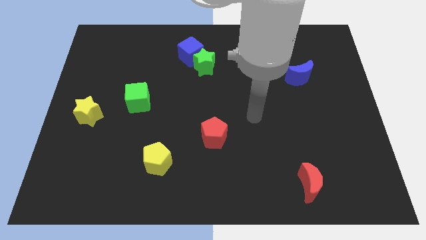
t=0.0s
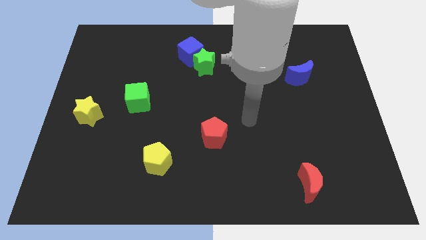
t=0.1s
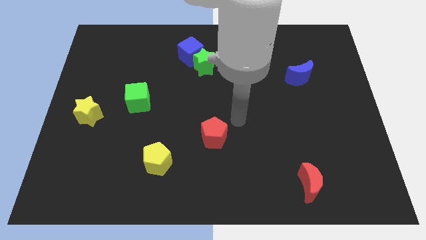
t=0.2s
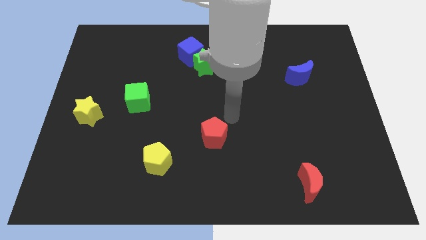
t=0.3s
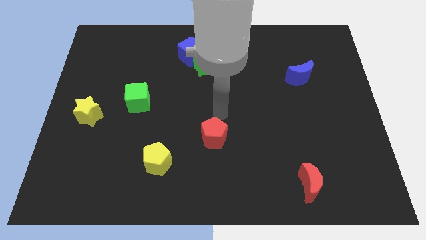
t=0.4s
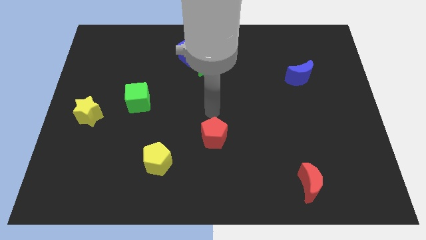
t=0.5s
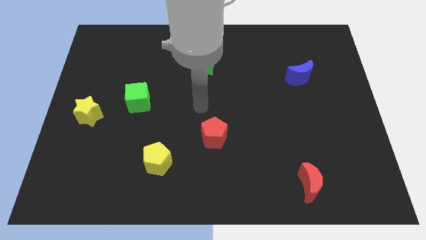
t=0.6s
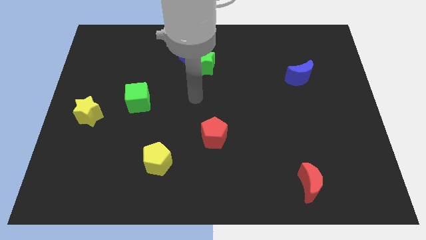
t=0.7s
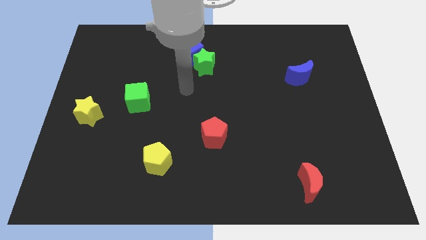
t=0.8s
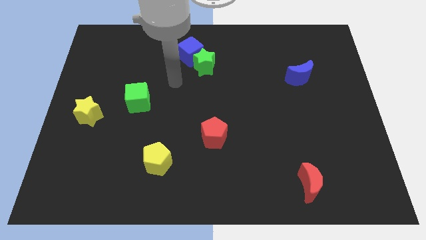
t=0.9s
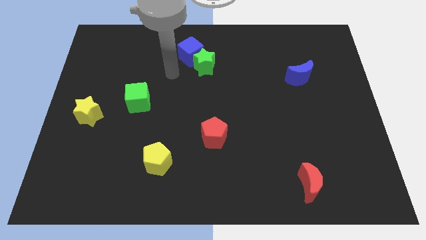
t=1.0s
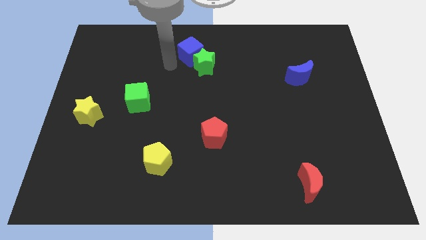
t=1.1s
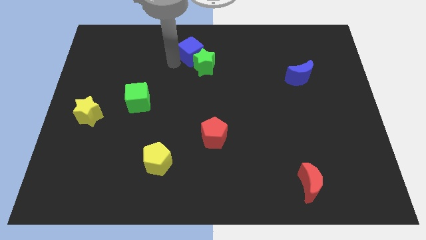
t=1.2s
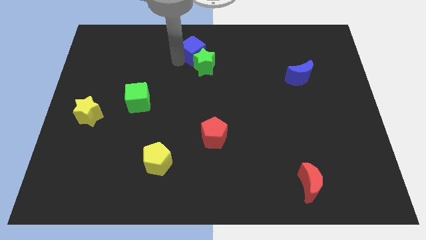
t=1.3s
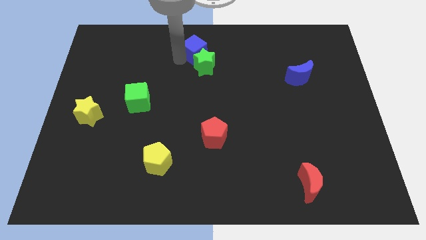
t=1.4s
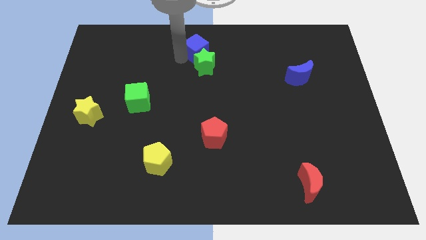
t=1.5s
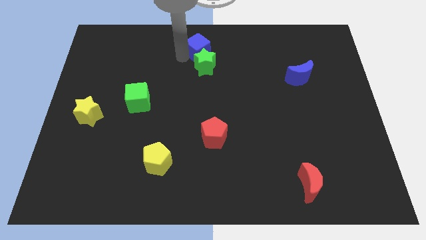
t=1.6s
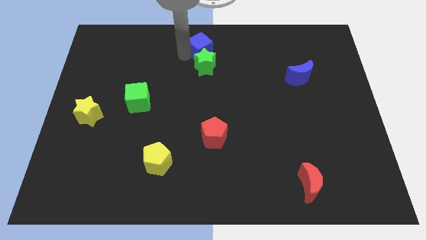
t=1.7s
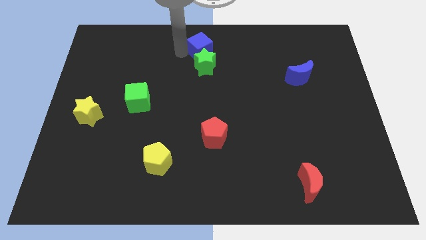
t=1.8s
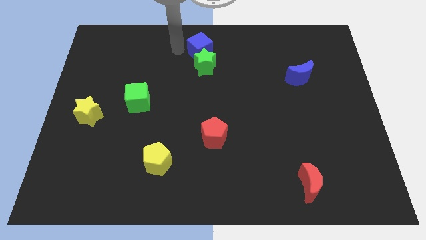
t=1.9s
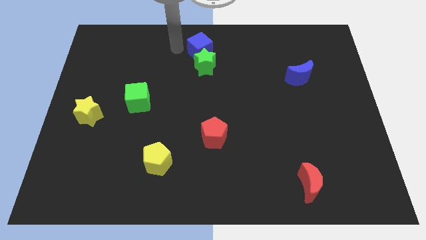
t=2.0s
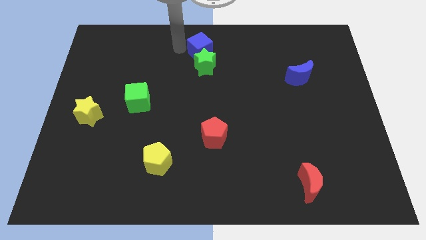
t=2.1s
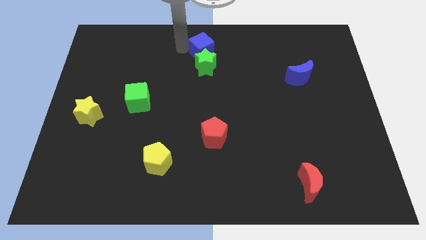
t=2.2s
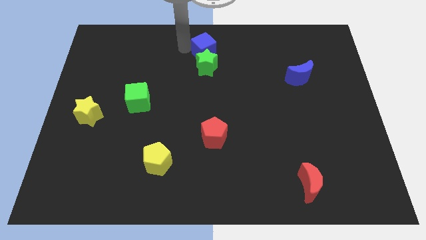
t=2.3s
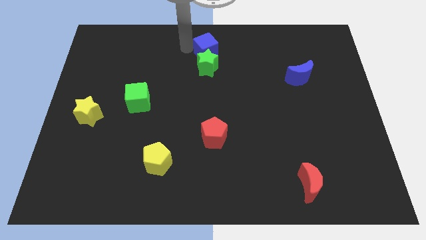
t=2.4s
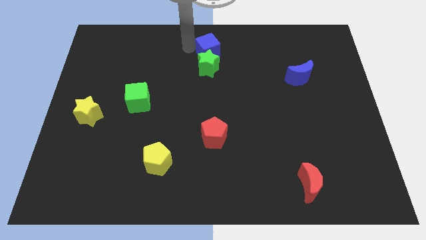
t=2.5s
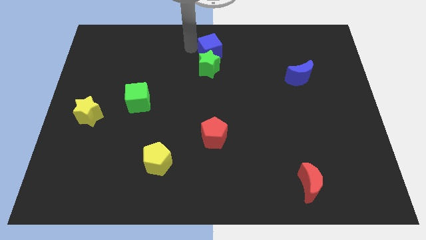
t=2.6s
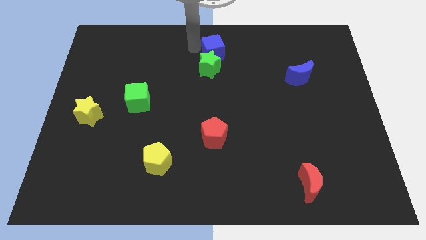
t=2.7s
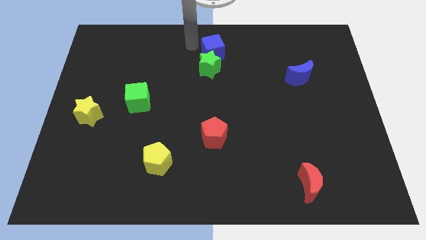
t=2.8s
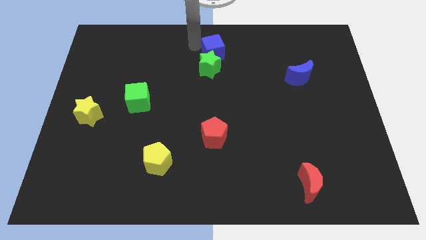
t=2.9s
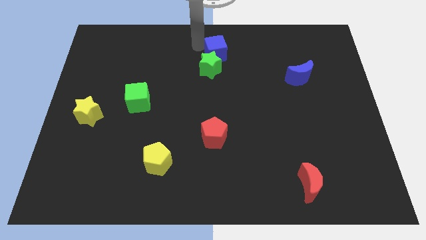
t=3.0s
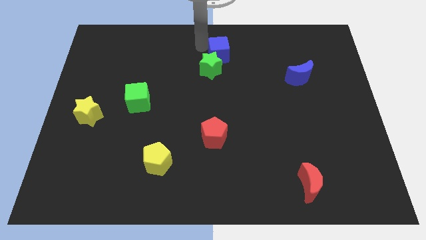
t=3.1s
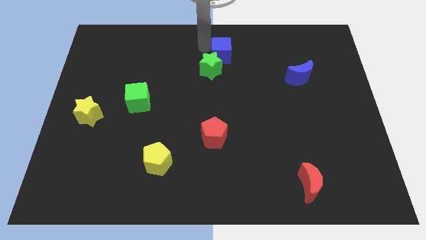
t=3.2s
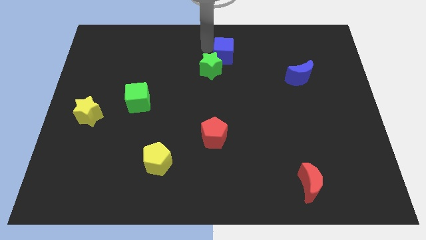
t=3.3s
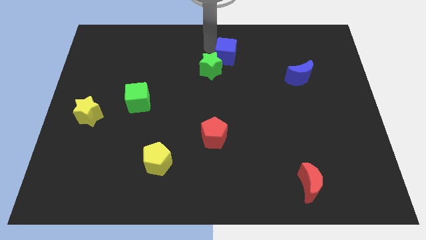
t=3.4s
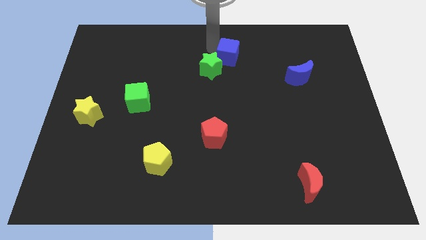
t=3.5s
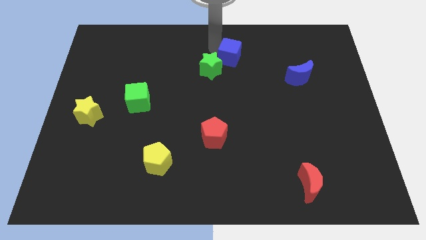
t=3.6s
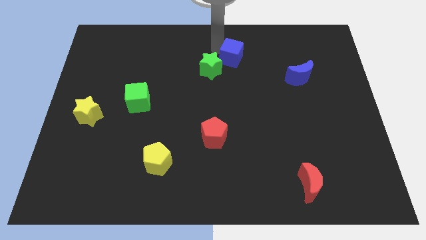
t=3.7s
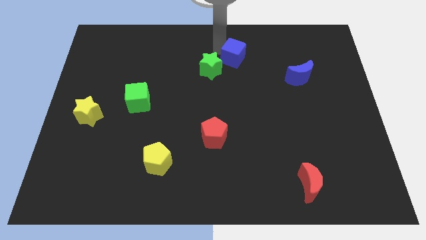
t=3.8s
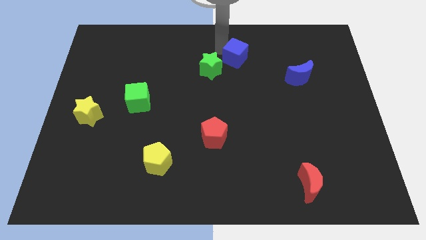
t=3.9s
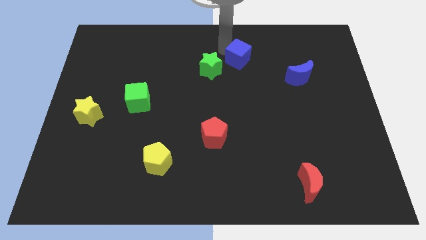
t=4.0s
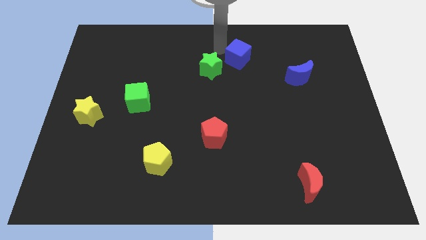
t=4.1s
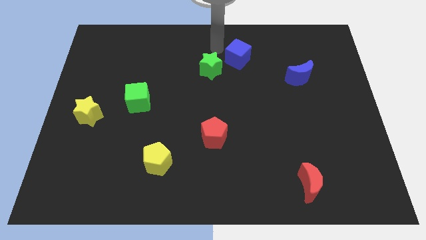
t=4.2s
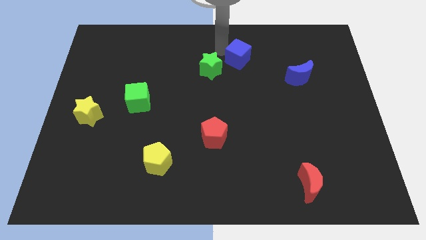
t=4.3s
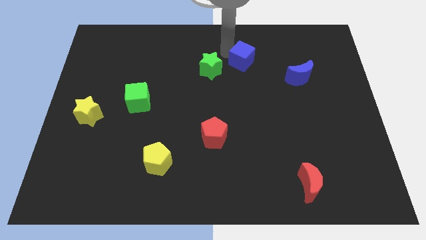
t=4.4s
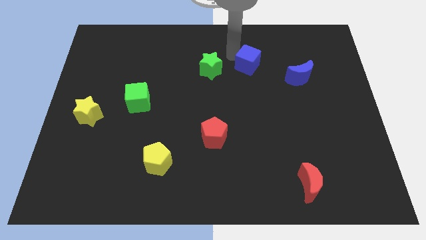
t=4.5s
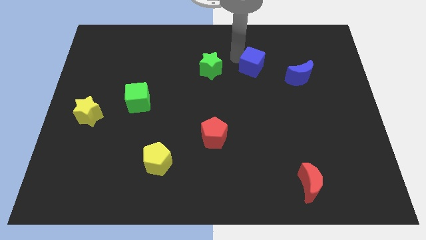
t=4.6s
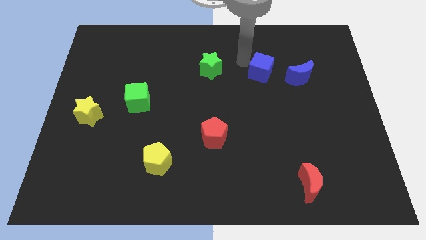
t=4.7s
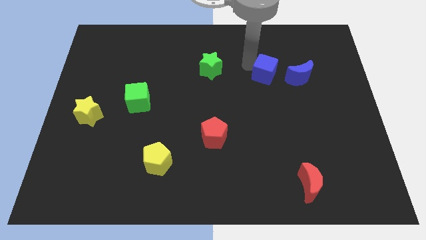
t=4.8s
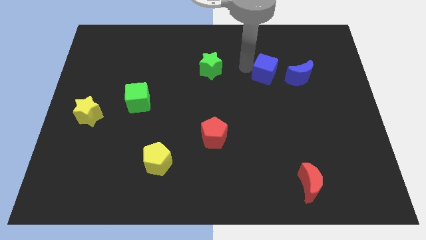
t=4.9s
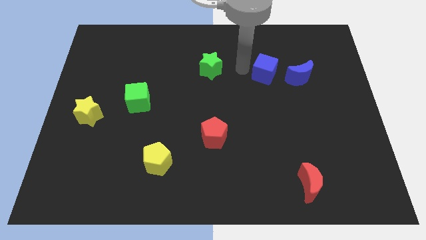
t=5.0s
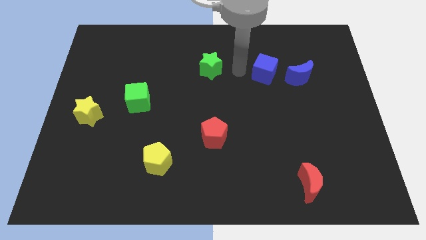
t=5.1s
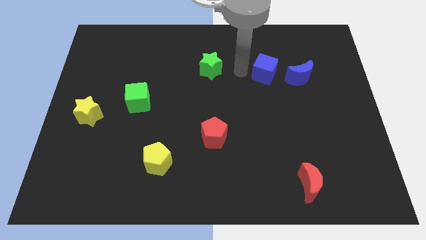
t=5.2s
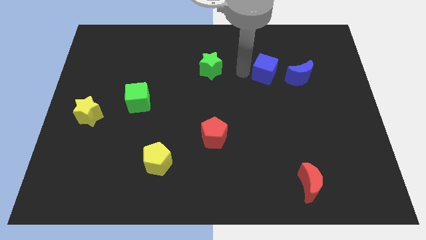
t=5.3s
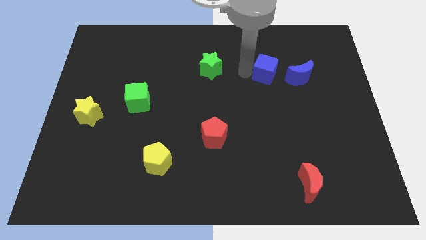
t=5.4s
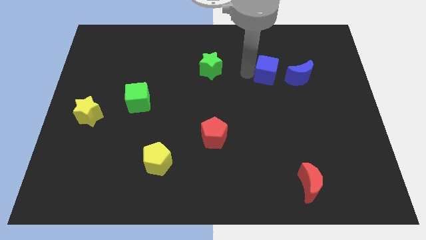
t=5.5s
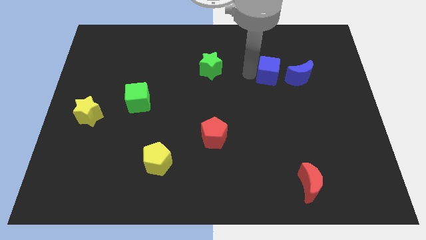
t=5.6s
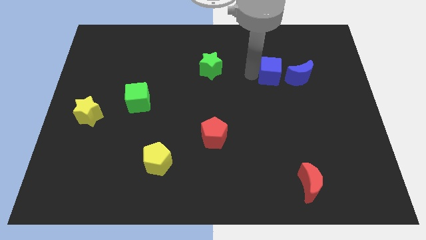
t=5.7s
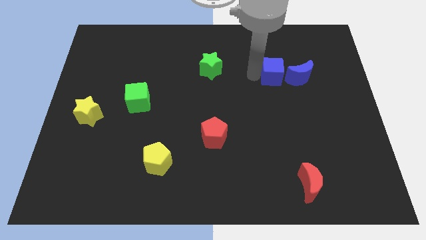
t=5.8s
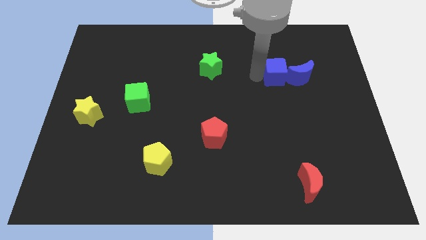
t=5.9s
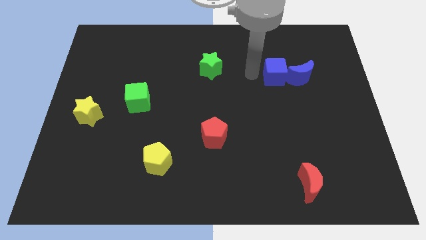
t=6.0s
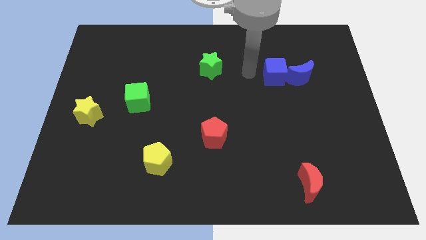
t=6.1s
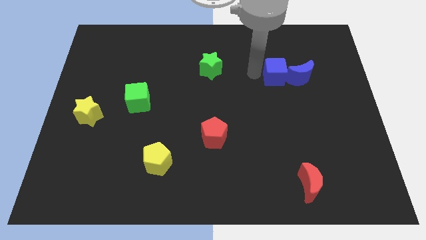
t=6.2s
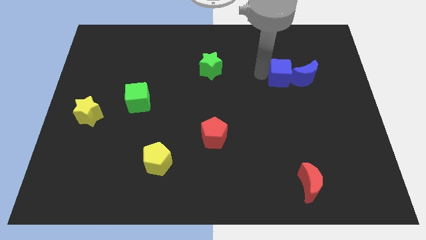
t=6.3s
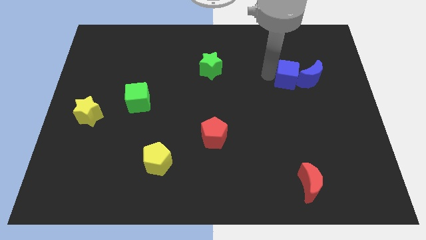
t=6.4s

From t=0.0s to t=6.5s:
move the blue cube next to the blue moon

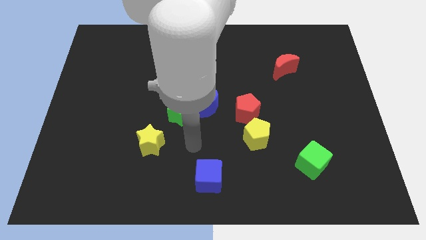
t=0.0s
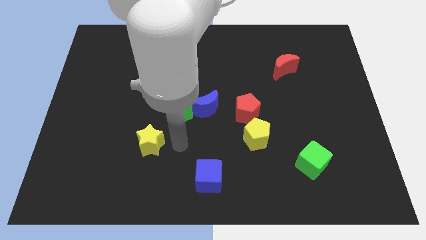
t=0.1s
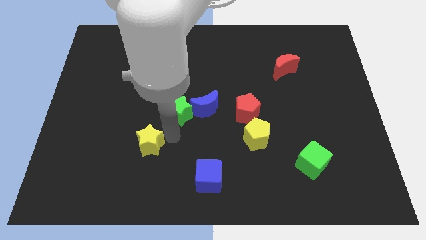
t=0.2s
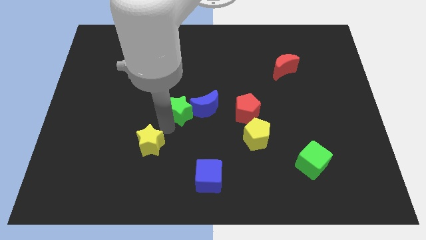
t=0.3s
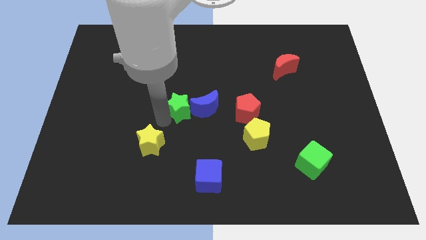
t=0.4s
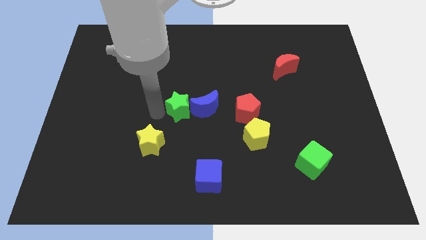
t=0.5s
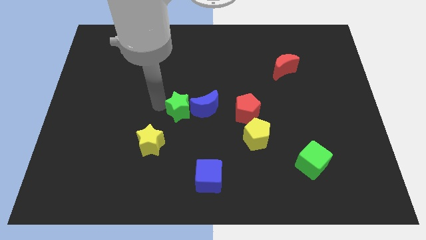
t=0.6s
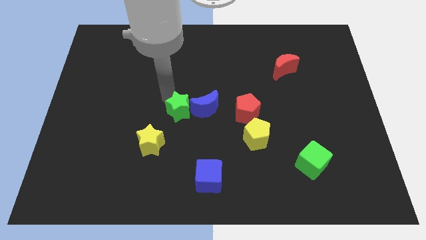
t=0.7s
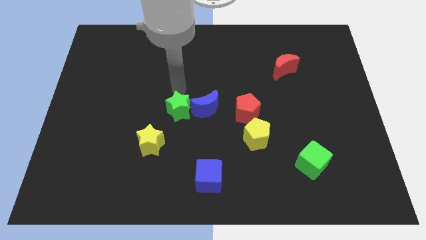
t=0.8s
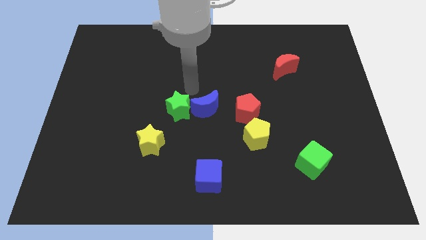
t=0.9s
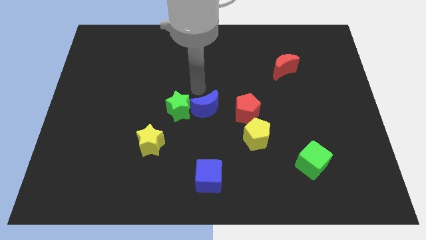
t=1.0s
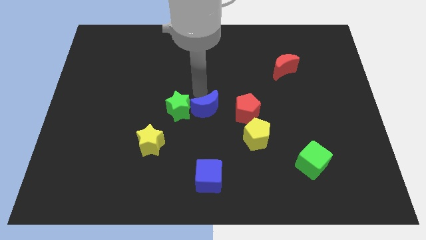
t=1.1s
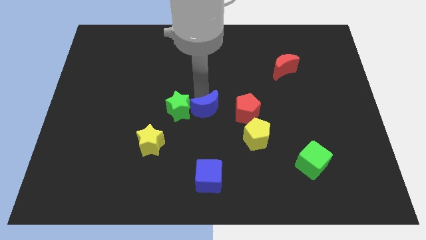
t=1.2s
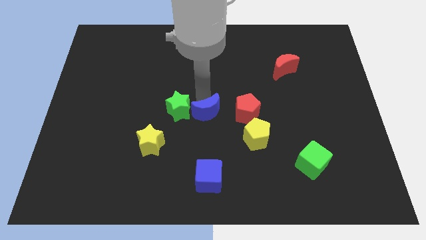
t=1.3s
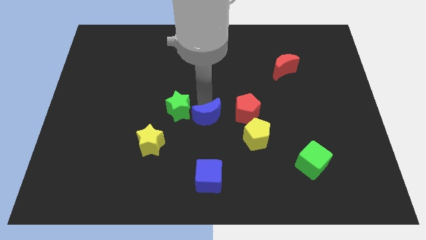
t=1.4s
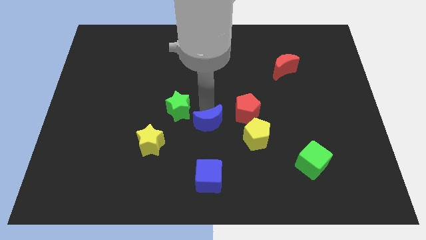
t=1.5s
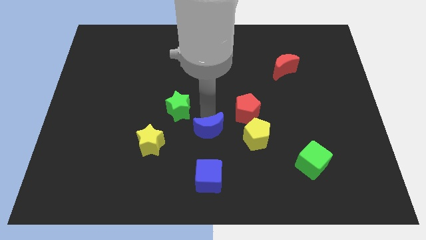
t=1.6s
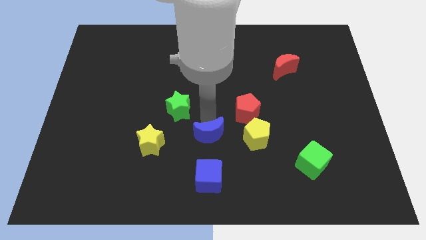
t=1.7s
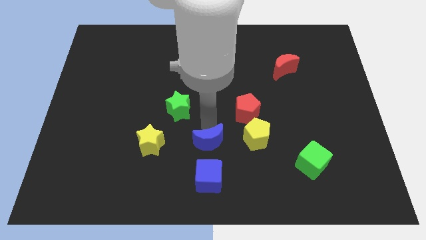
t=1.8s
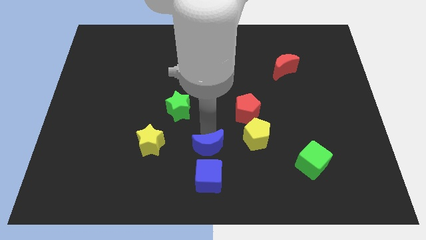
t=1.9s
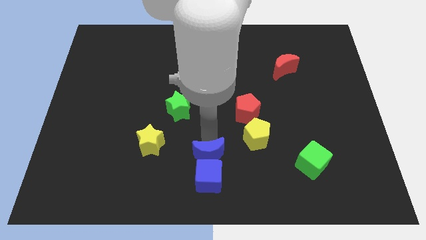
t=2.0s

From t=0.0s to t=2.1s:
move the blue moon next to the blue cube
